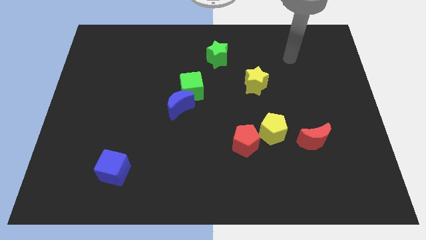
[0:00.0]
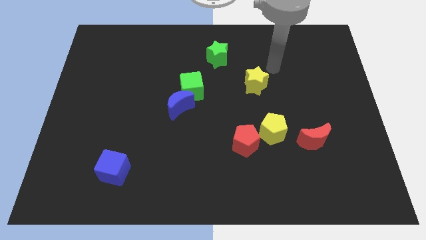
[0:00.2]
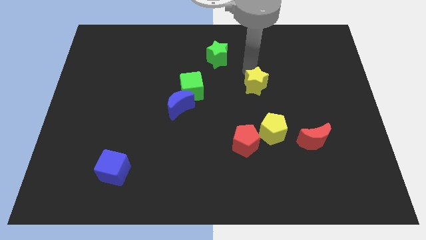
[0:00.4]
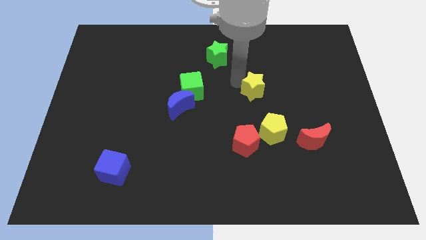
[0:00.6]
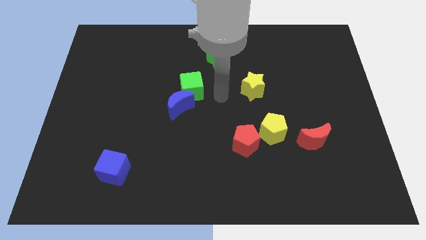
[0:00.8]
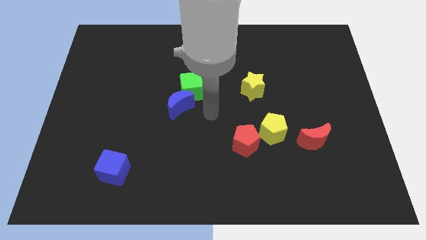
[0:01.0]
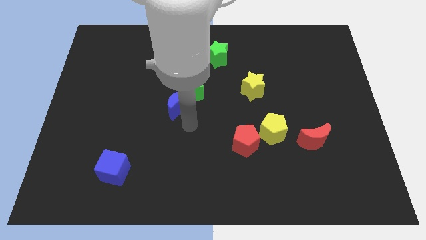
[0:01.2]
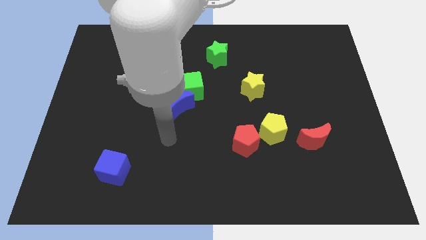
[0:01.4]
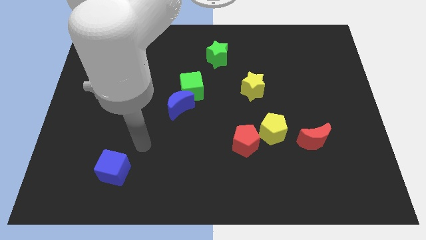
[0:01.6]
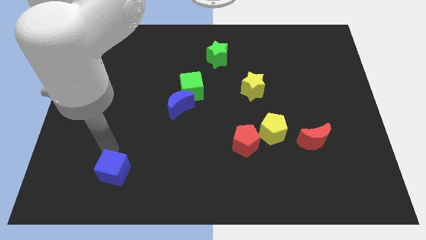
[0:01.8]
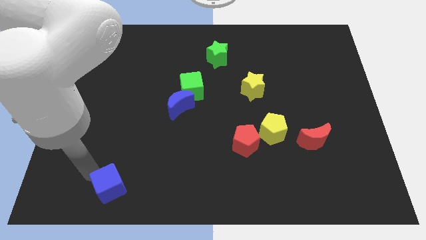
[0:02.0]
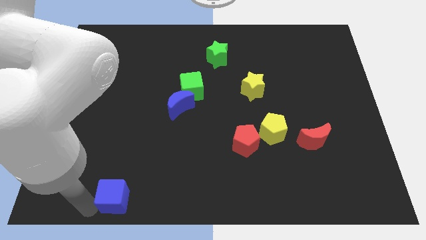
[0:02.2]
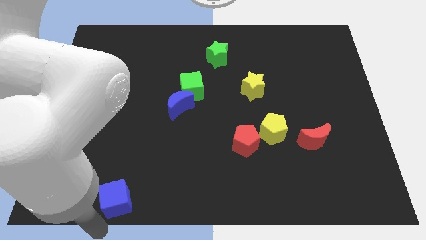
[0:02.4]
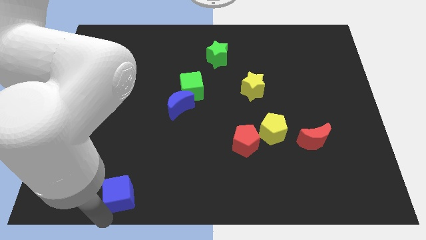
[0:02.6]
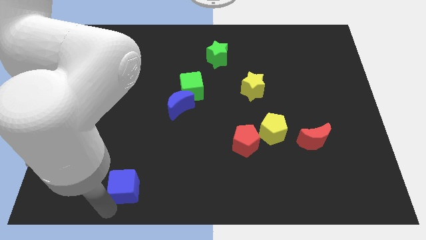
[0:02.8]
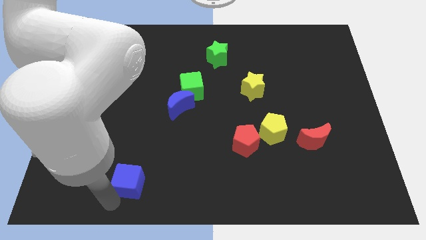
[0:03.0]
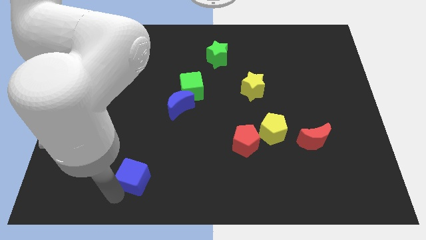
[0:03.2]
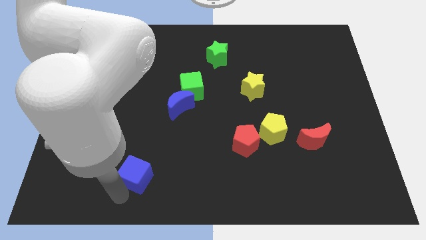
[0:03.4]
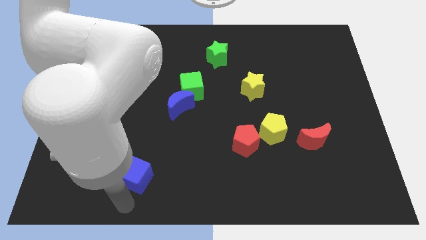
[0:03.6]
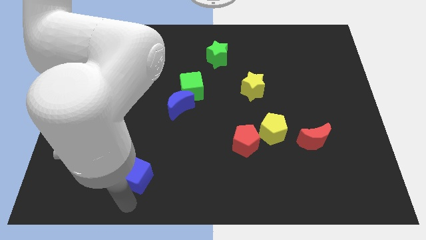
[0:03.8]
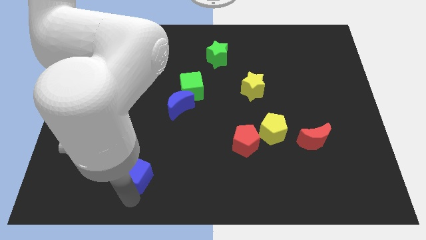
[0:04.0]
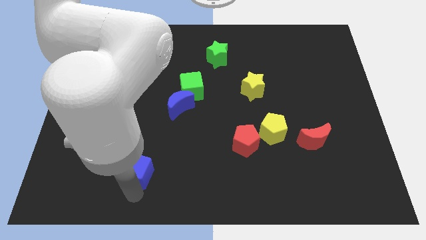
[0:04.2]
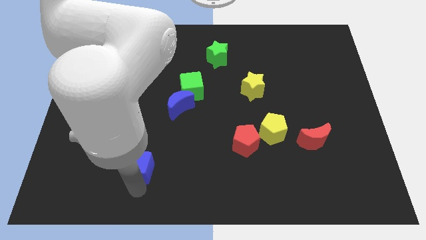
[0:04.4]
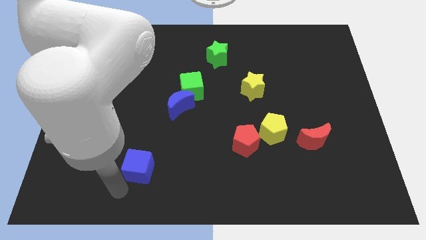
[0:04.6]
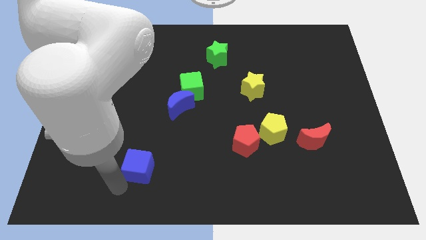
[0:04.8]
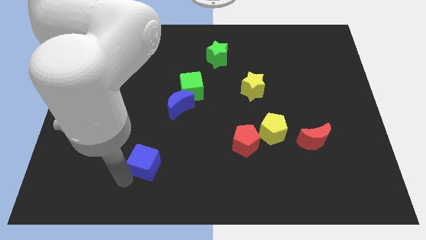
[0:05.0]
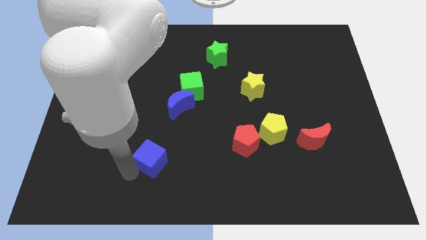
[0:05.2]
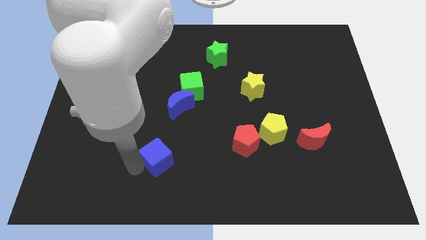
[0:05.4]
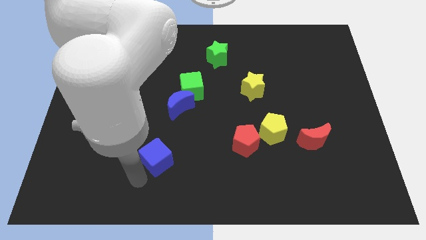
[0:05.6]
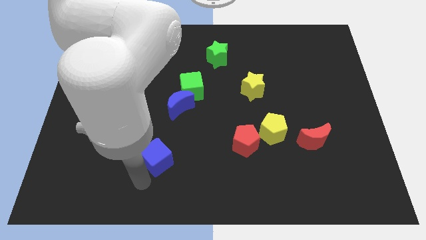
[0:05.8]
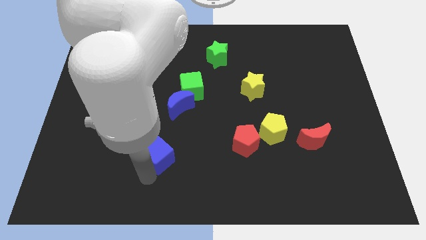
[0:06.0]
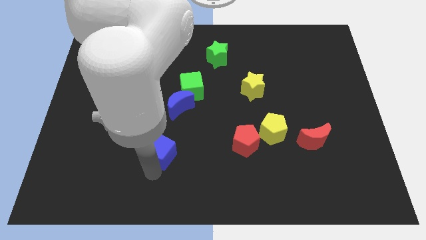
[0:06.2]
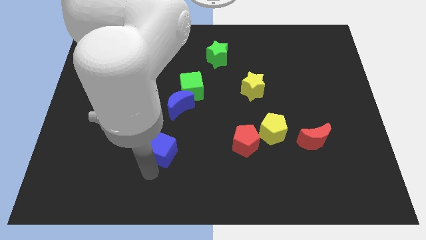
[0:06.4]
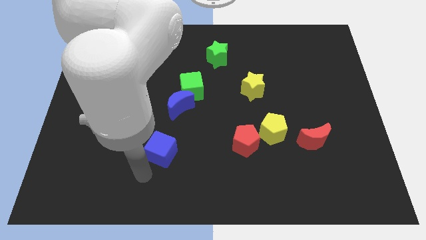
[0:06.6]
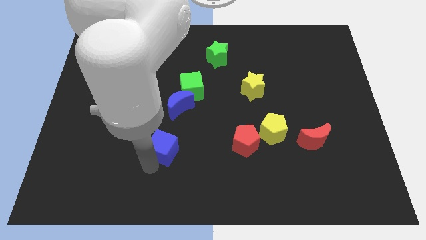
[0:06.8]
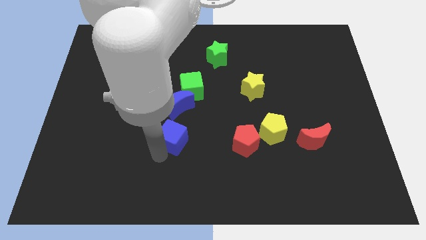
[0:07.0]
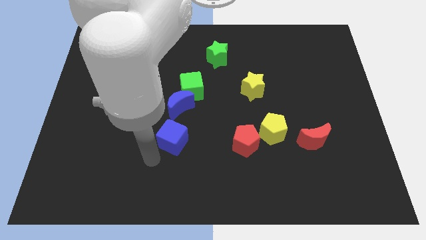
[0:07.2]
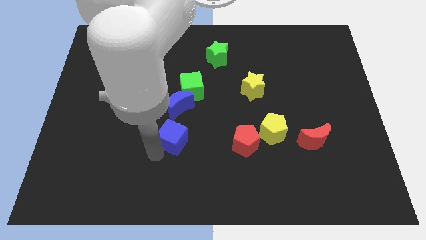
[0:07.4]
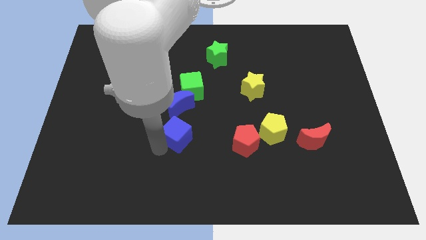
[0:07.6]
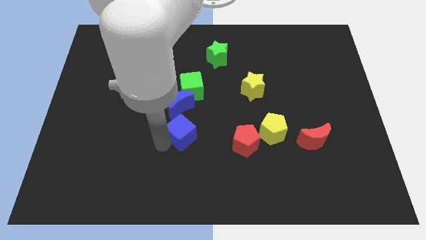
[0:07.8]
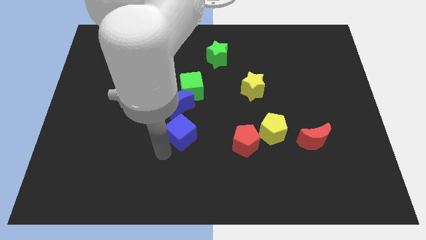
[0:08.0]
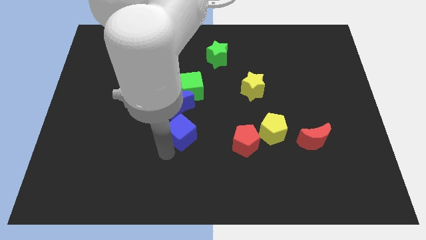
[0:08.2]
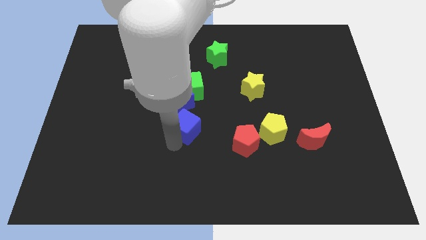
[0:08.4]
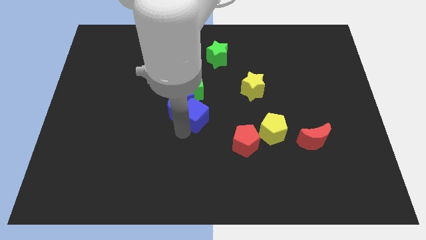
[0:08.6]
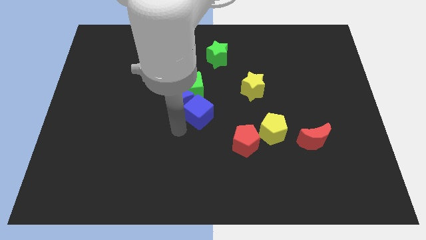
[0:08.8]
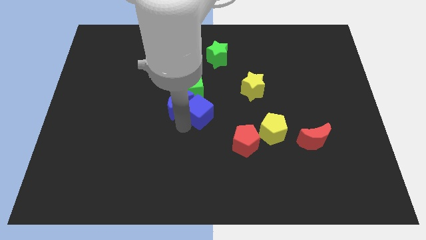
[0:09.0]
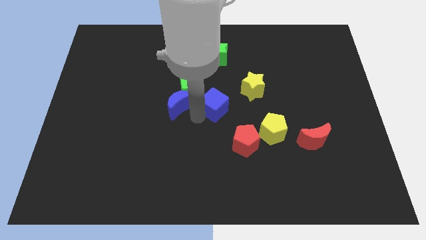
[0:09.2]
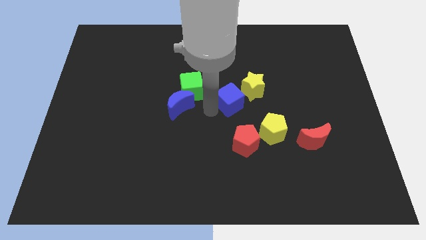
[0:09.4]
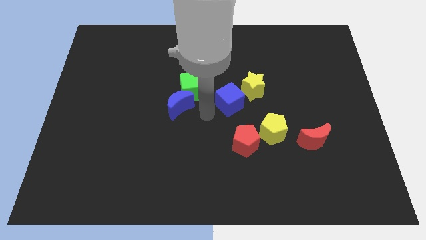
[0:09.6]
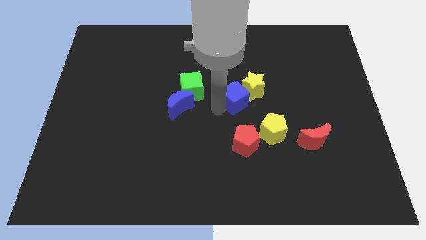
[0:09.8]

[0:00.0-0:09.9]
move the blue cube towards the yellow star

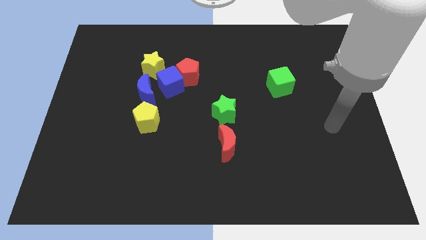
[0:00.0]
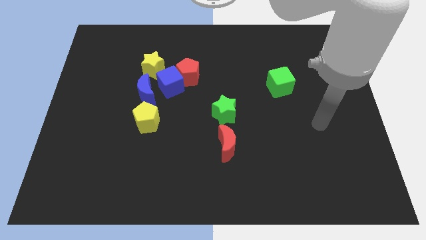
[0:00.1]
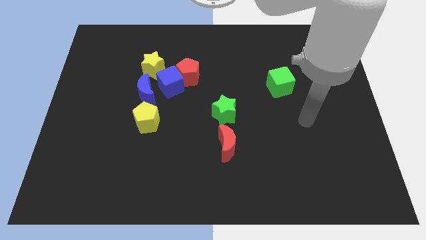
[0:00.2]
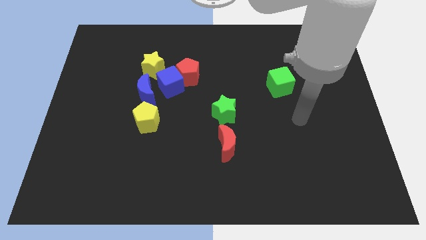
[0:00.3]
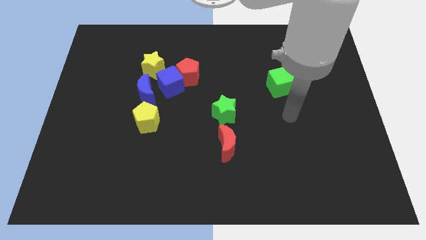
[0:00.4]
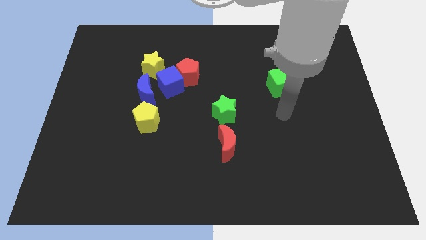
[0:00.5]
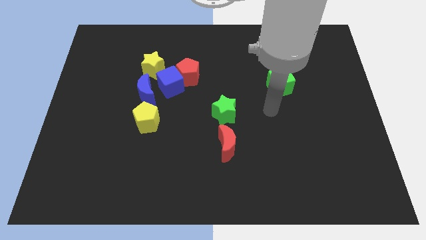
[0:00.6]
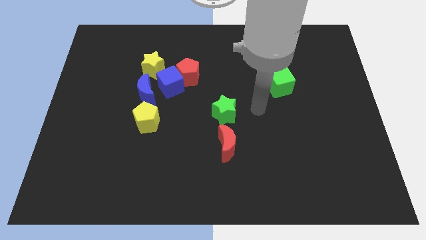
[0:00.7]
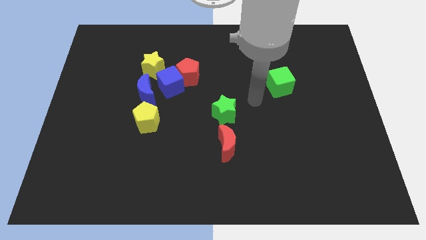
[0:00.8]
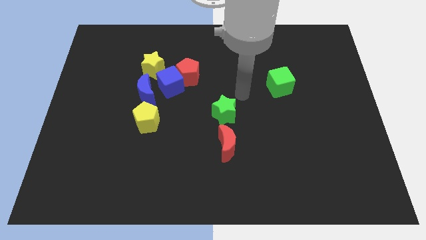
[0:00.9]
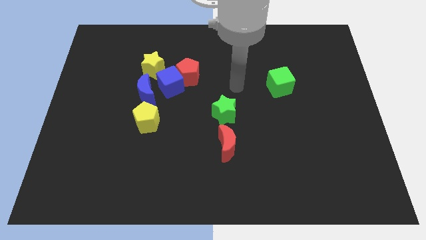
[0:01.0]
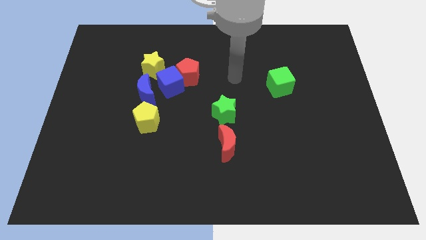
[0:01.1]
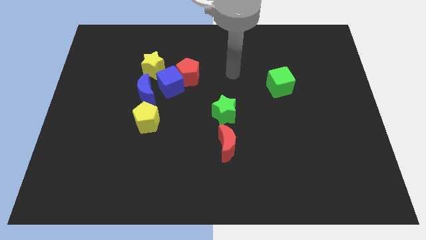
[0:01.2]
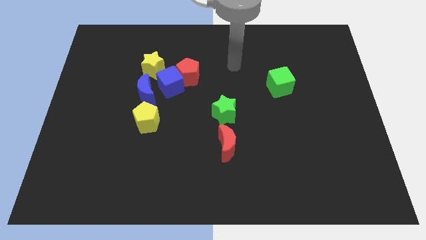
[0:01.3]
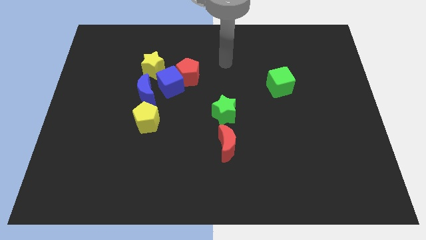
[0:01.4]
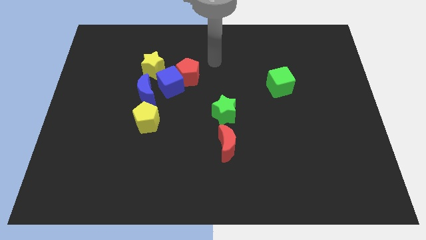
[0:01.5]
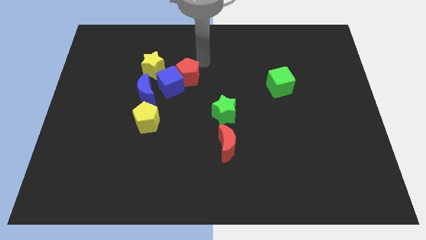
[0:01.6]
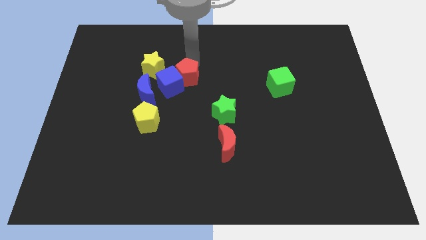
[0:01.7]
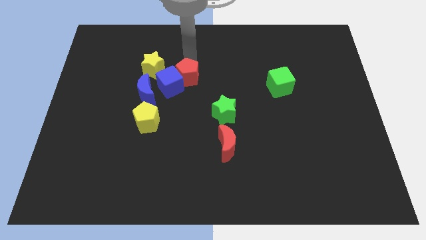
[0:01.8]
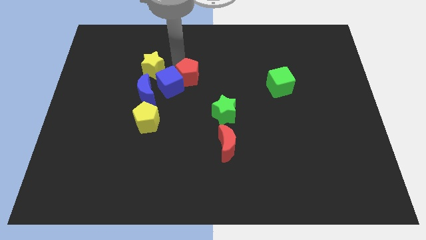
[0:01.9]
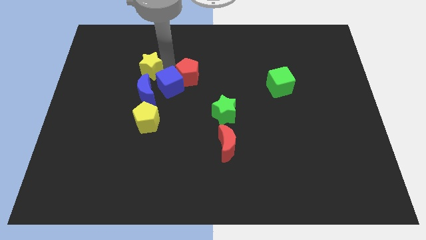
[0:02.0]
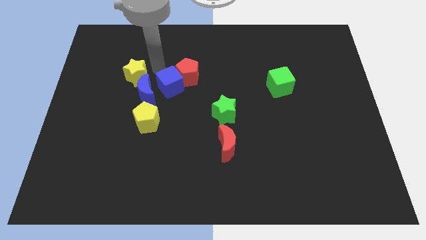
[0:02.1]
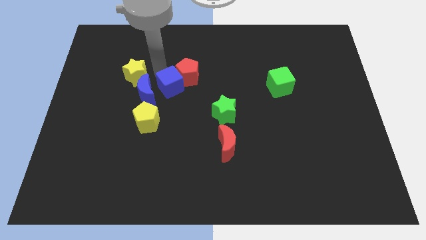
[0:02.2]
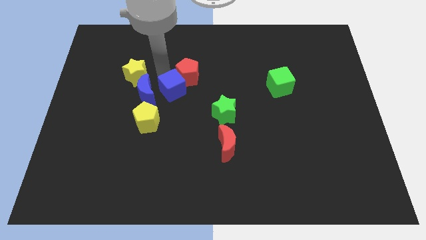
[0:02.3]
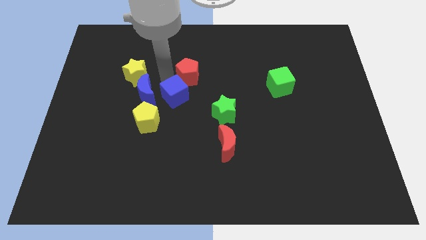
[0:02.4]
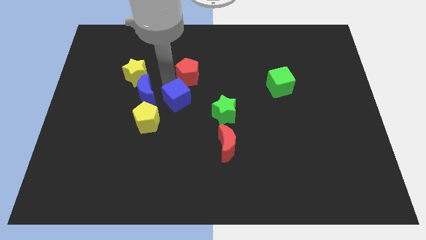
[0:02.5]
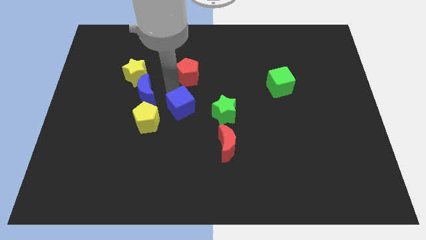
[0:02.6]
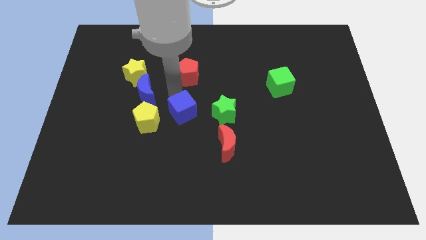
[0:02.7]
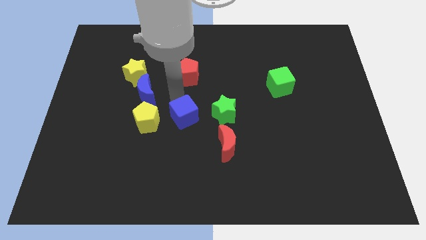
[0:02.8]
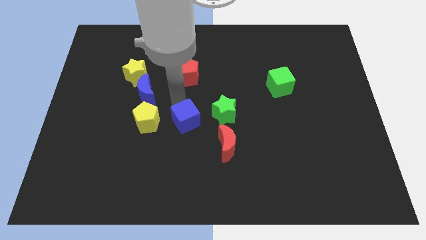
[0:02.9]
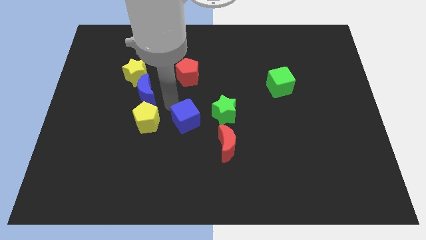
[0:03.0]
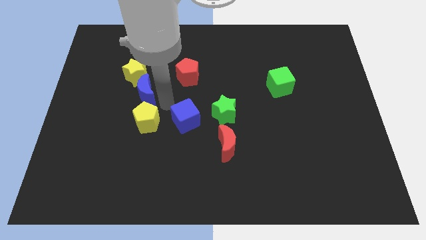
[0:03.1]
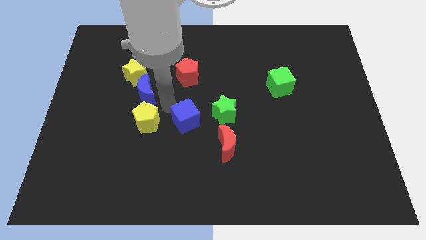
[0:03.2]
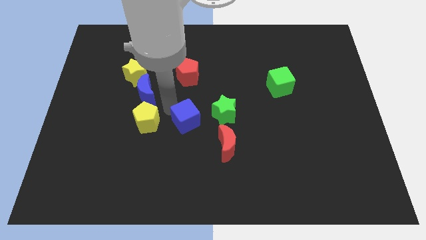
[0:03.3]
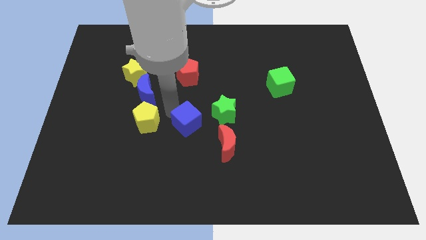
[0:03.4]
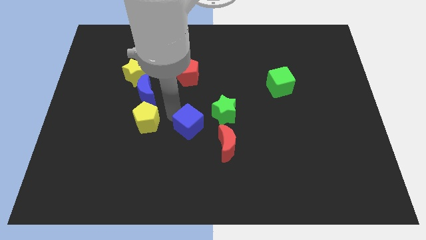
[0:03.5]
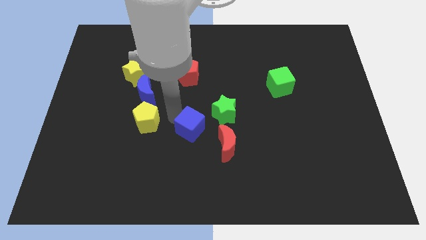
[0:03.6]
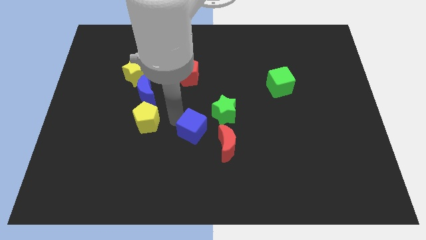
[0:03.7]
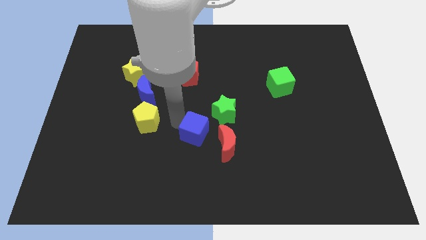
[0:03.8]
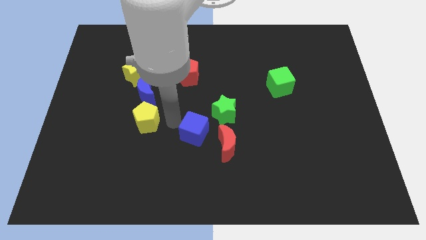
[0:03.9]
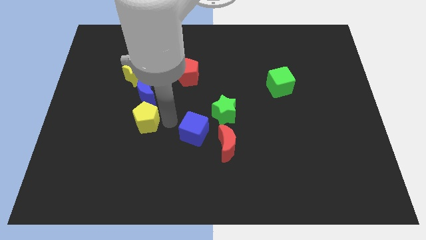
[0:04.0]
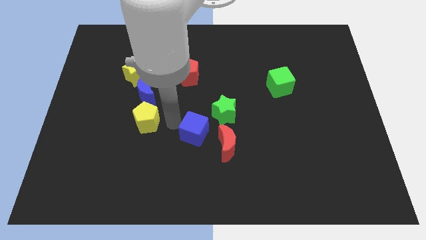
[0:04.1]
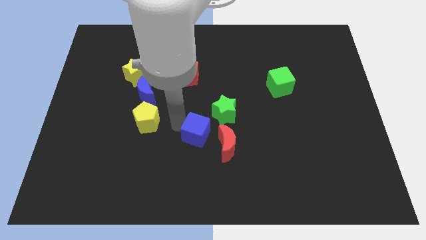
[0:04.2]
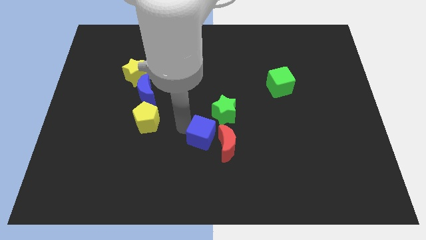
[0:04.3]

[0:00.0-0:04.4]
move the blue cube towards the red moon
